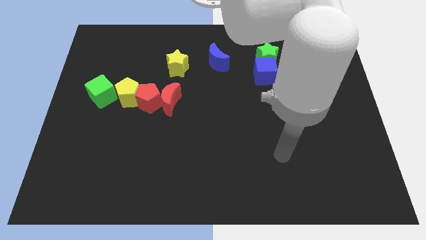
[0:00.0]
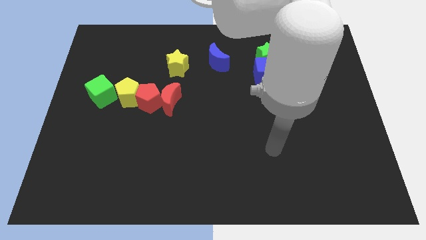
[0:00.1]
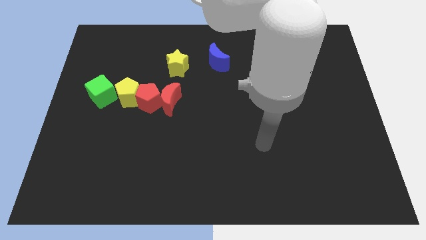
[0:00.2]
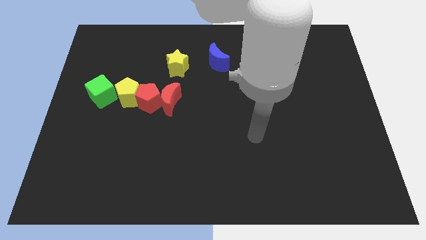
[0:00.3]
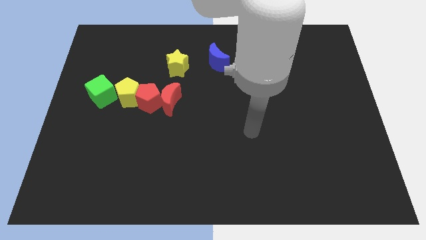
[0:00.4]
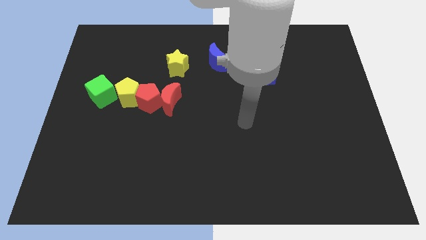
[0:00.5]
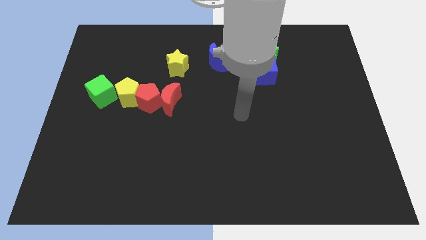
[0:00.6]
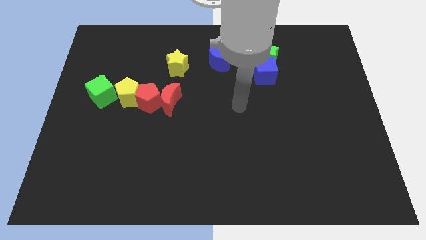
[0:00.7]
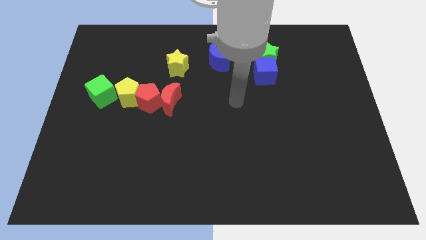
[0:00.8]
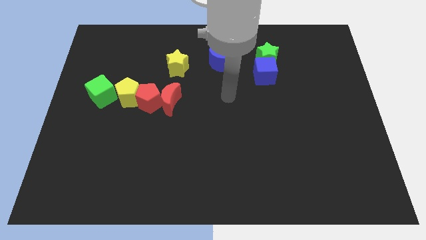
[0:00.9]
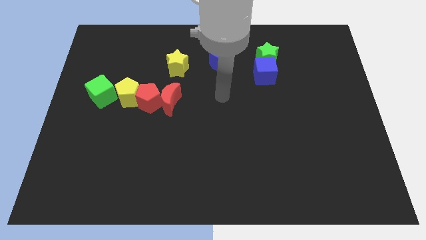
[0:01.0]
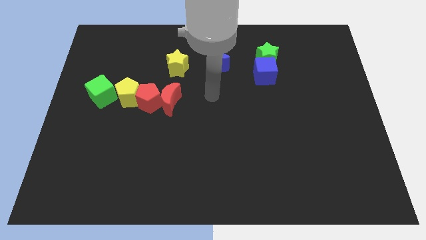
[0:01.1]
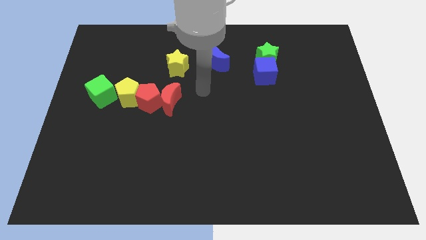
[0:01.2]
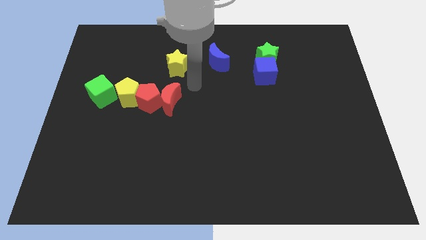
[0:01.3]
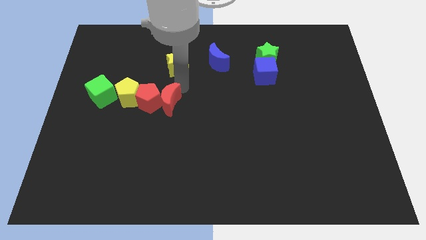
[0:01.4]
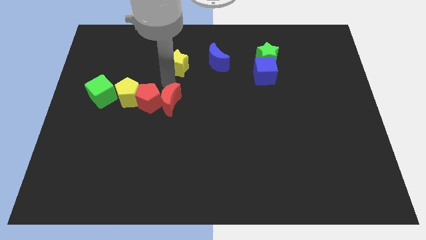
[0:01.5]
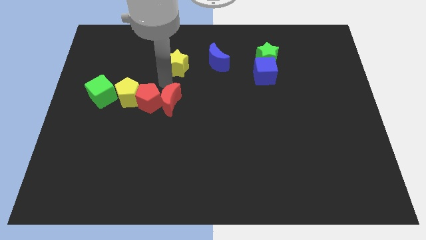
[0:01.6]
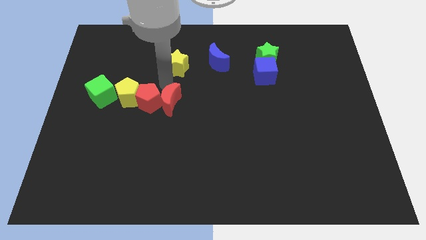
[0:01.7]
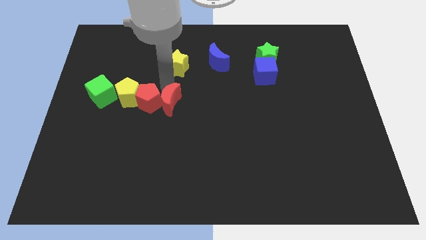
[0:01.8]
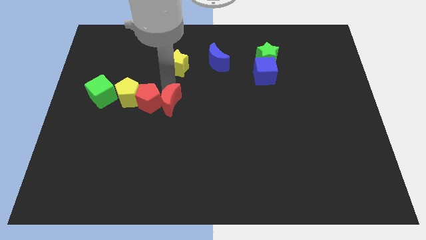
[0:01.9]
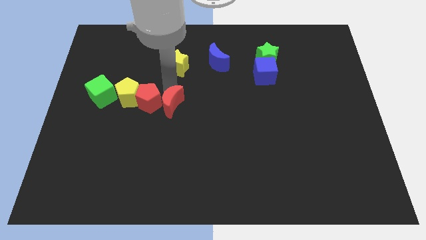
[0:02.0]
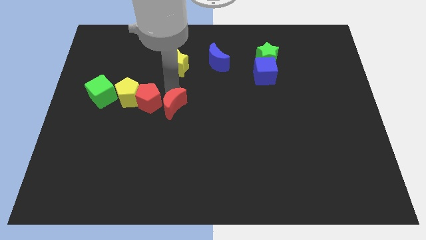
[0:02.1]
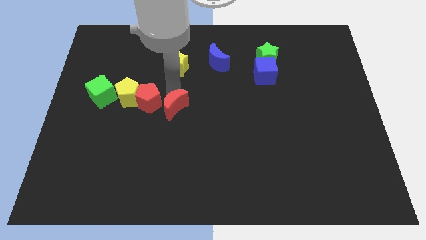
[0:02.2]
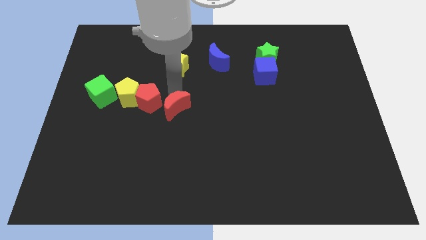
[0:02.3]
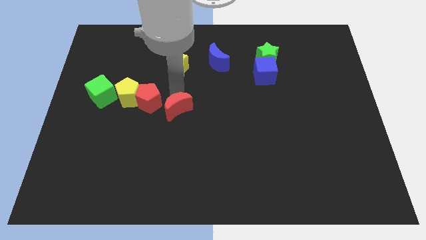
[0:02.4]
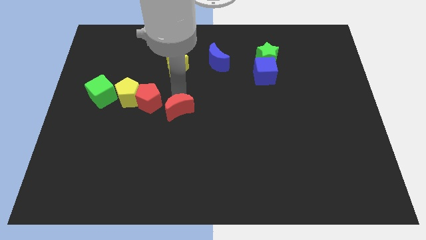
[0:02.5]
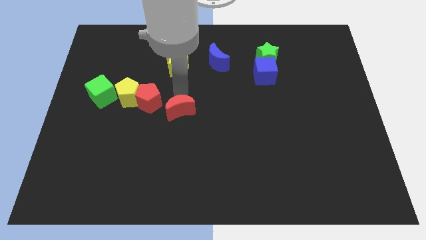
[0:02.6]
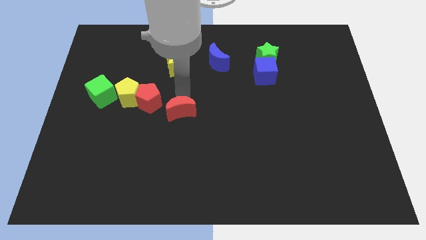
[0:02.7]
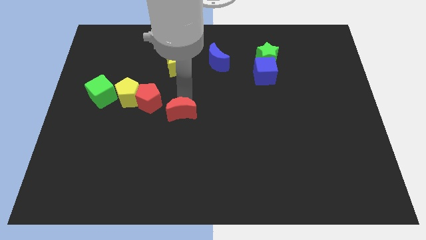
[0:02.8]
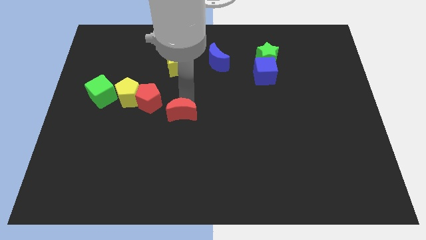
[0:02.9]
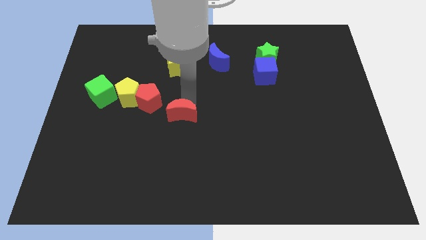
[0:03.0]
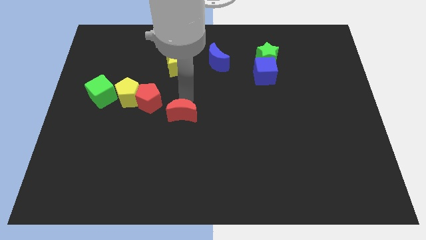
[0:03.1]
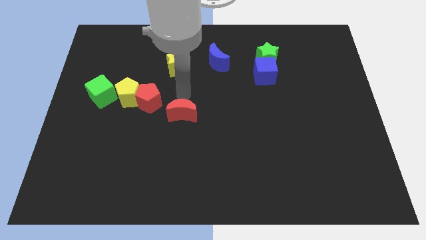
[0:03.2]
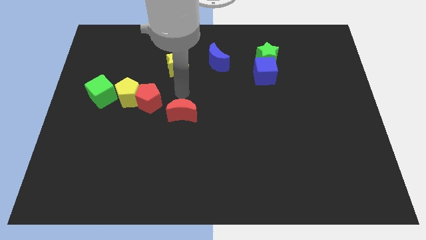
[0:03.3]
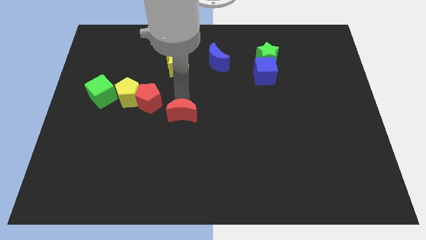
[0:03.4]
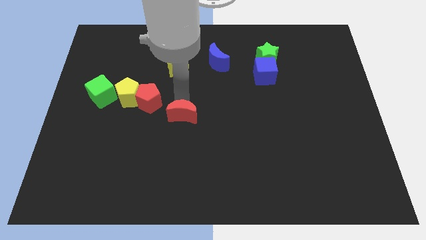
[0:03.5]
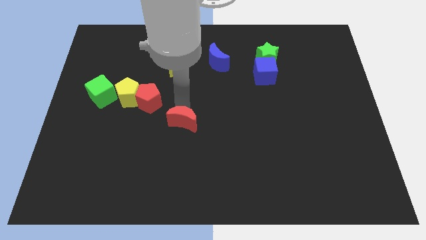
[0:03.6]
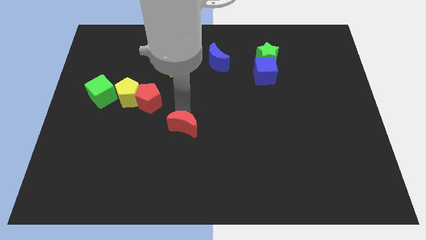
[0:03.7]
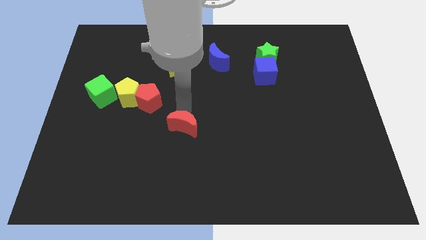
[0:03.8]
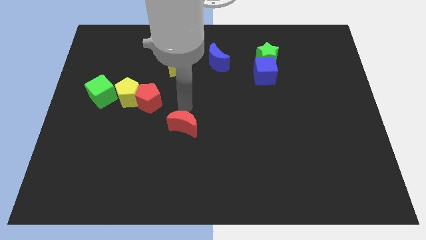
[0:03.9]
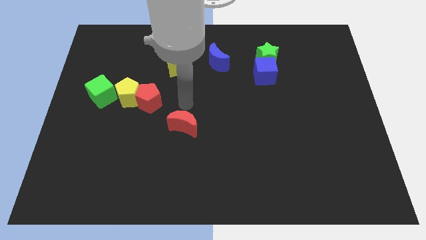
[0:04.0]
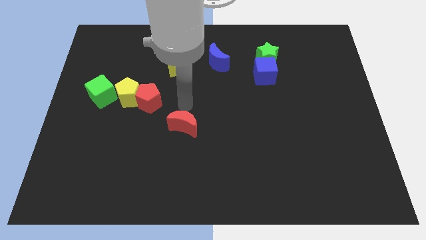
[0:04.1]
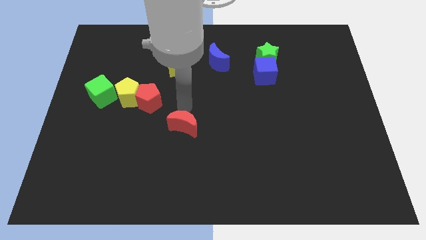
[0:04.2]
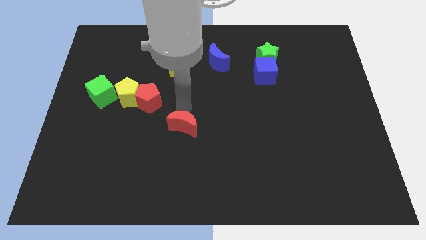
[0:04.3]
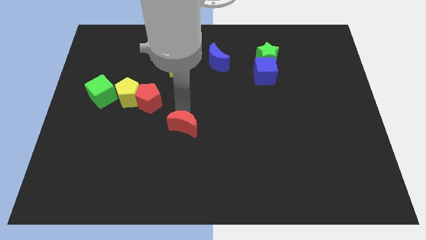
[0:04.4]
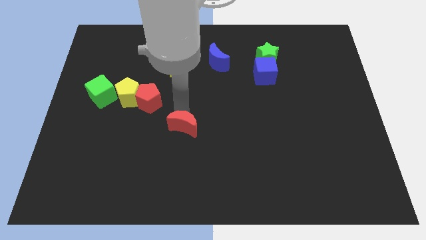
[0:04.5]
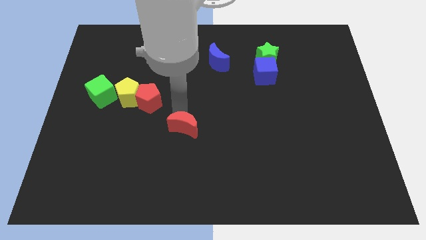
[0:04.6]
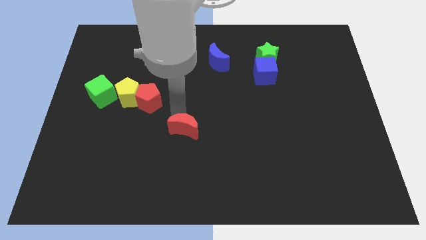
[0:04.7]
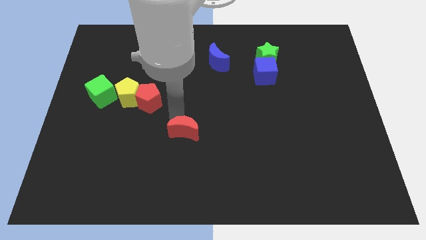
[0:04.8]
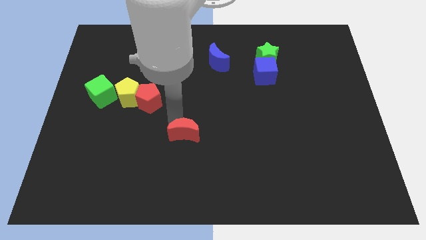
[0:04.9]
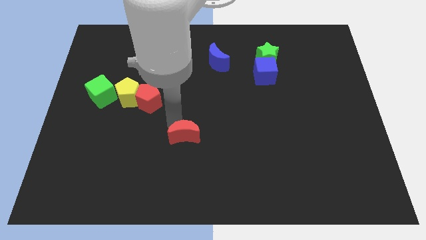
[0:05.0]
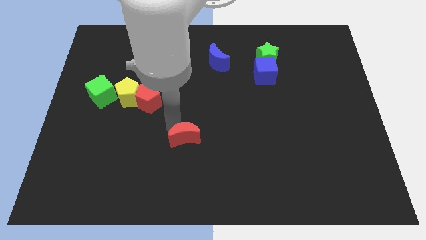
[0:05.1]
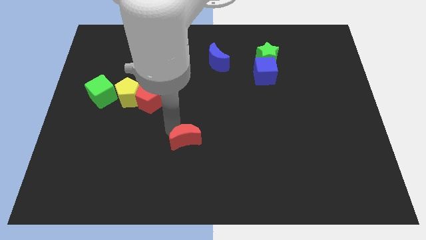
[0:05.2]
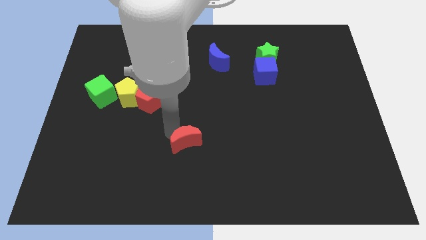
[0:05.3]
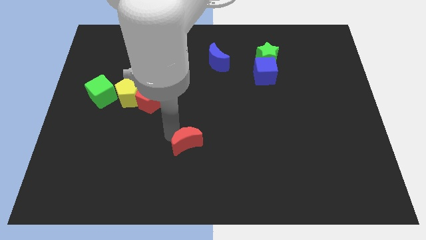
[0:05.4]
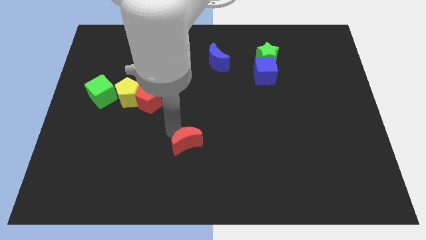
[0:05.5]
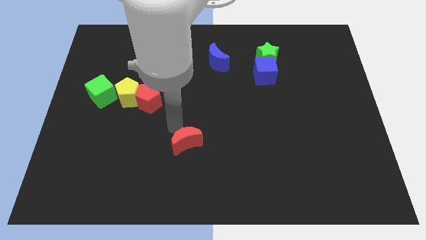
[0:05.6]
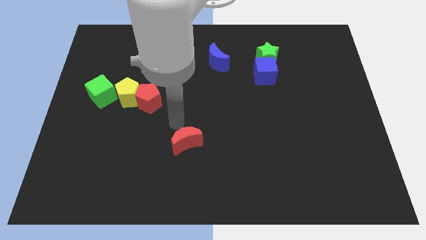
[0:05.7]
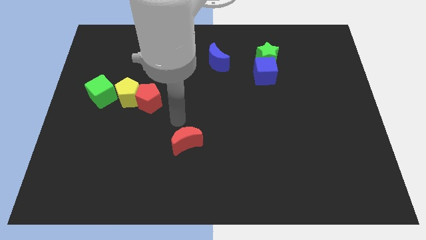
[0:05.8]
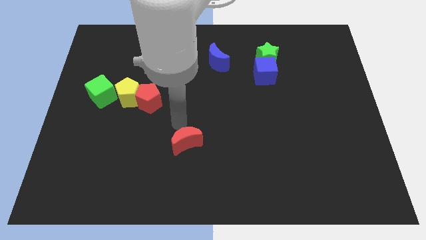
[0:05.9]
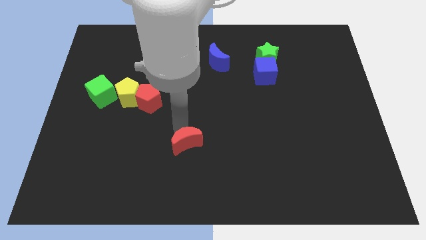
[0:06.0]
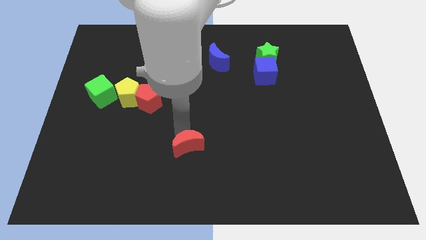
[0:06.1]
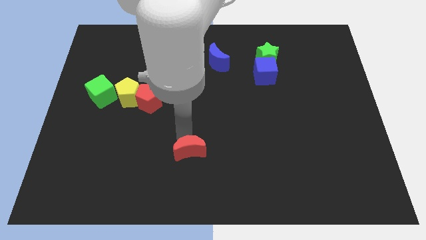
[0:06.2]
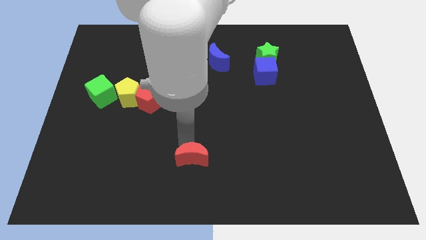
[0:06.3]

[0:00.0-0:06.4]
put the red moon to the bottom side
